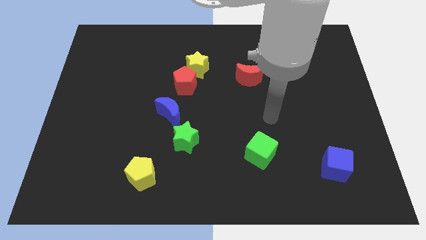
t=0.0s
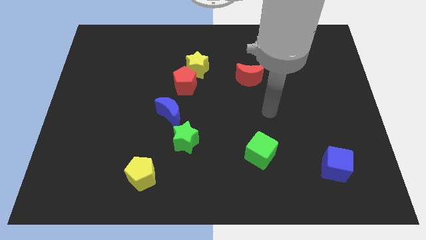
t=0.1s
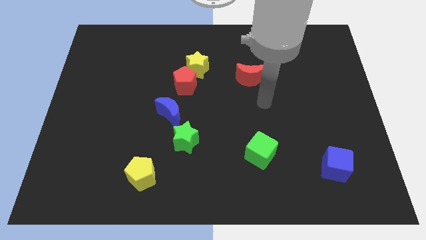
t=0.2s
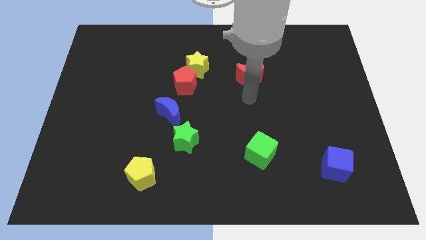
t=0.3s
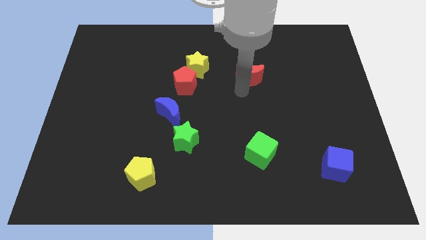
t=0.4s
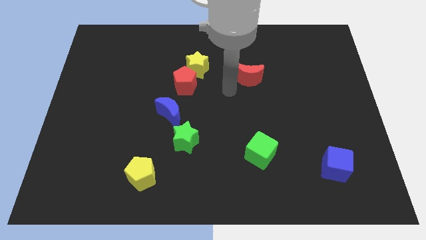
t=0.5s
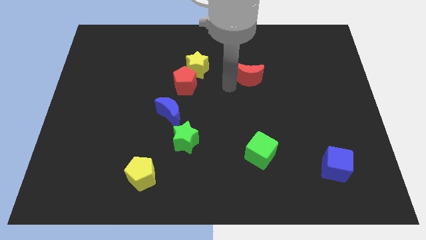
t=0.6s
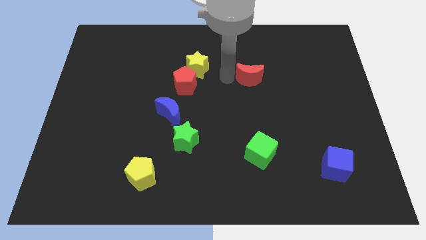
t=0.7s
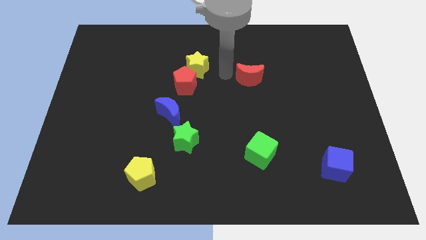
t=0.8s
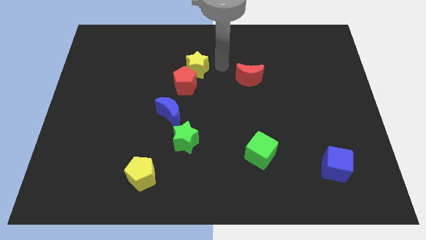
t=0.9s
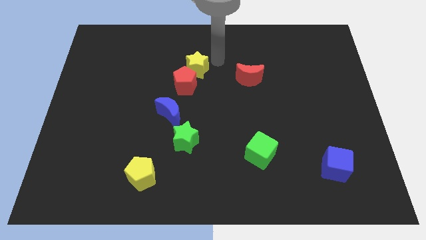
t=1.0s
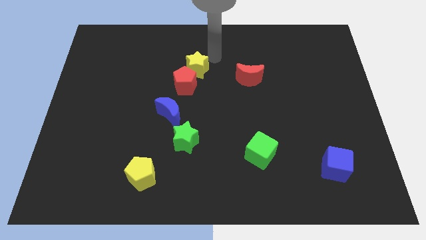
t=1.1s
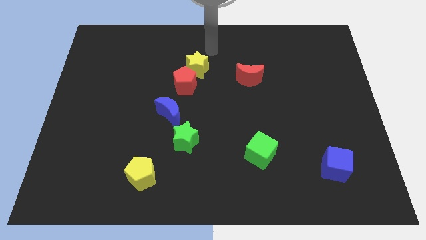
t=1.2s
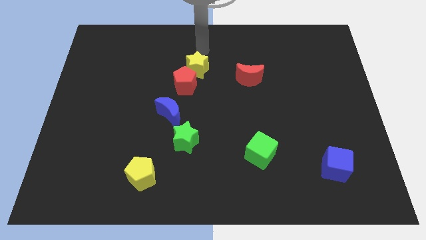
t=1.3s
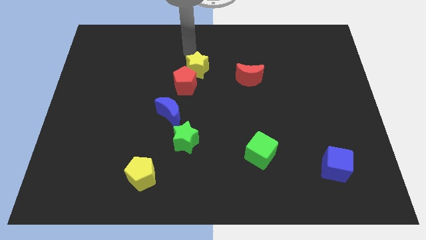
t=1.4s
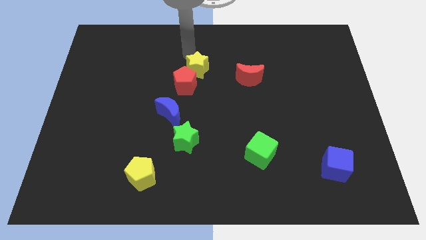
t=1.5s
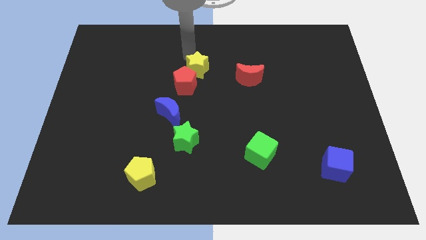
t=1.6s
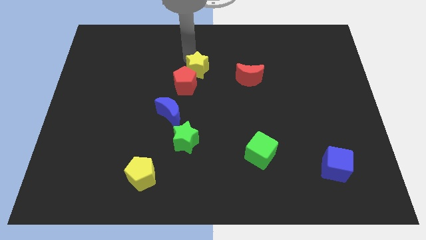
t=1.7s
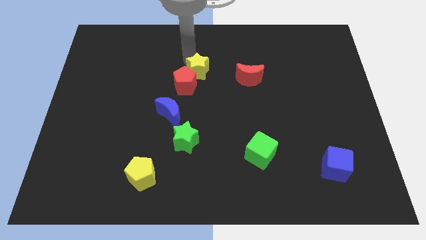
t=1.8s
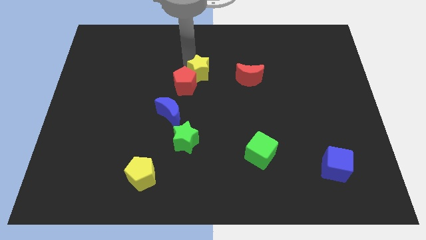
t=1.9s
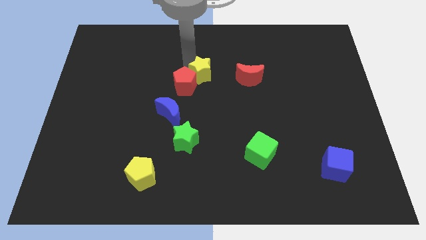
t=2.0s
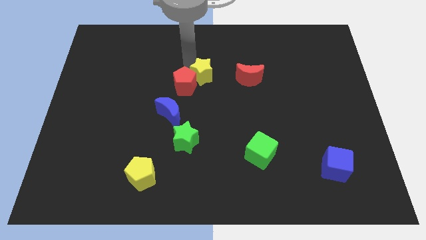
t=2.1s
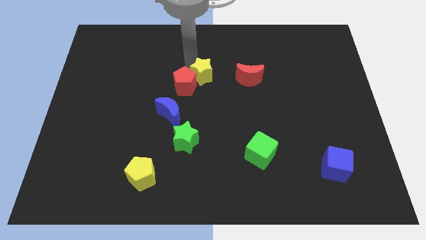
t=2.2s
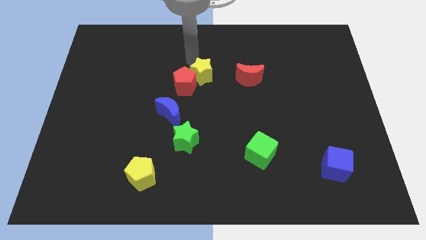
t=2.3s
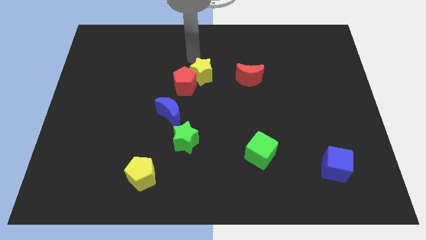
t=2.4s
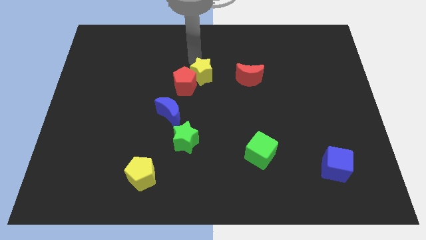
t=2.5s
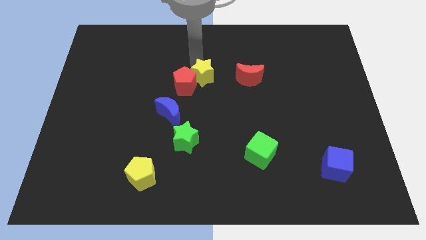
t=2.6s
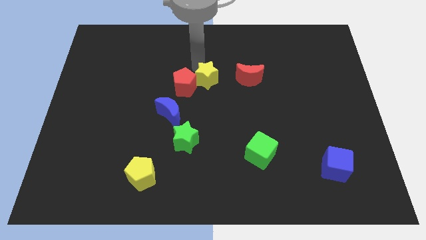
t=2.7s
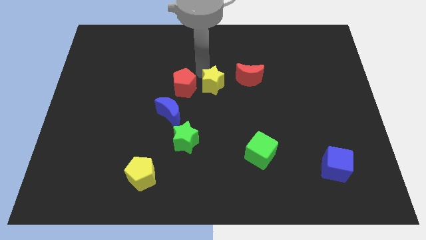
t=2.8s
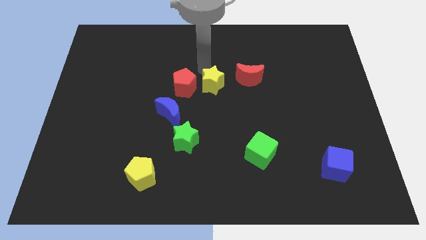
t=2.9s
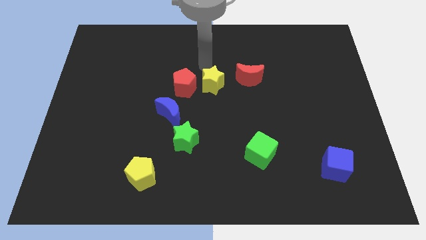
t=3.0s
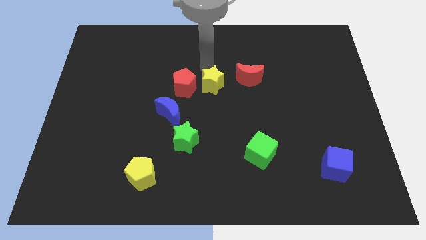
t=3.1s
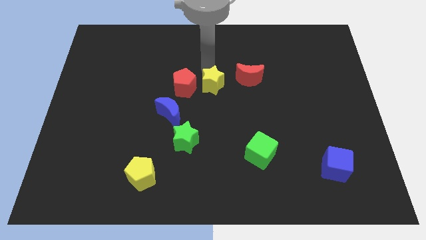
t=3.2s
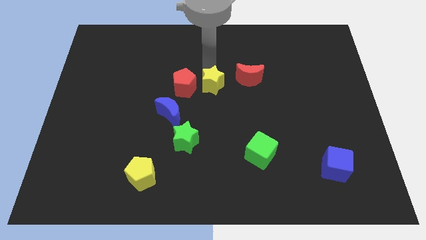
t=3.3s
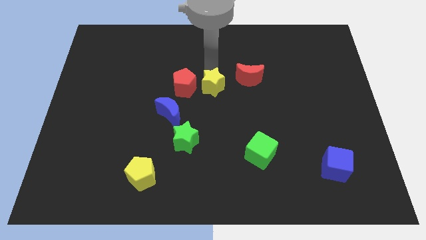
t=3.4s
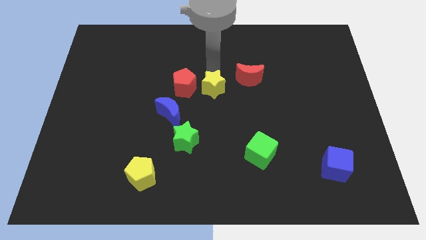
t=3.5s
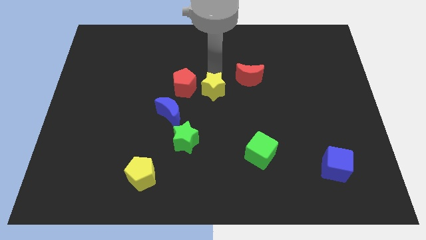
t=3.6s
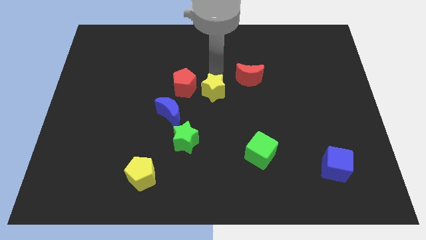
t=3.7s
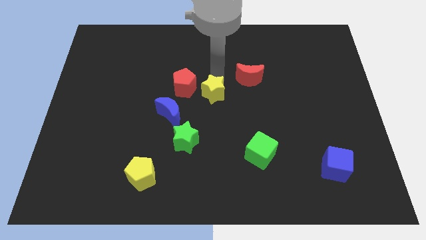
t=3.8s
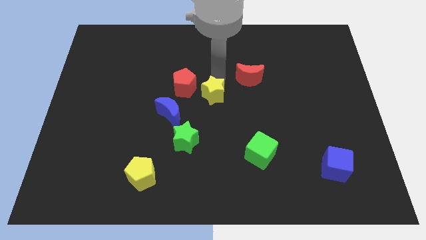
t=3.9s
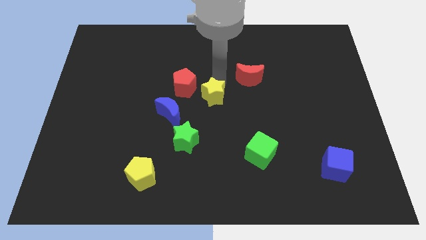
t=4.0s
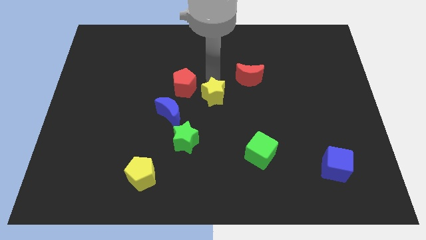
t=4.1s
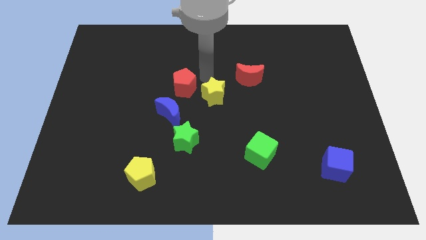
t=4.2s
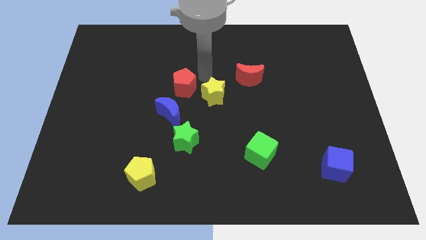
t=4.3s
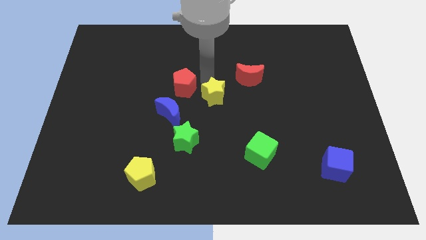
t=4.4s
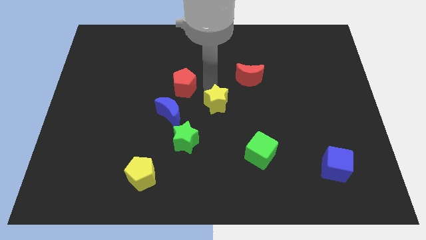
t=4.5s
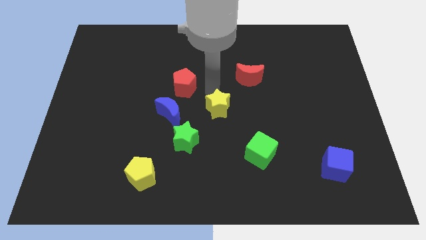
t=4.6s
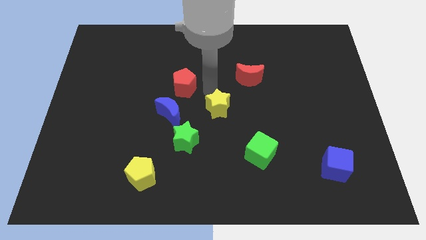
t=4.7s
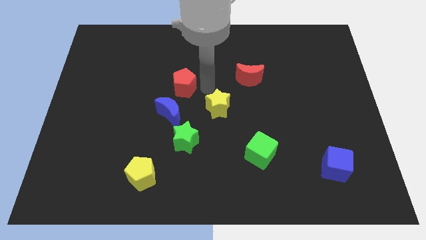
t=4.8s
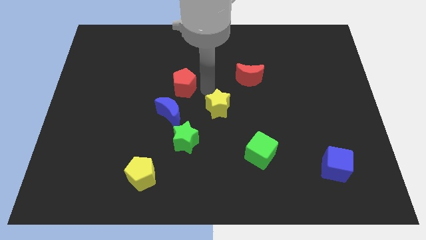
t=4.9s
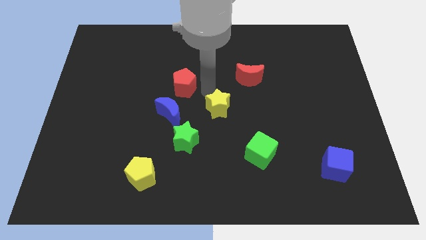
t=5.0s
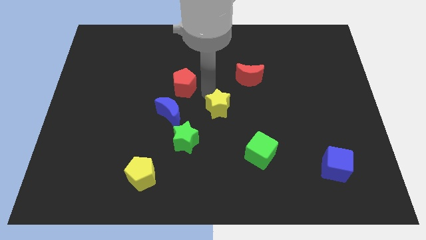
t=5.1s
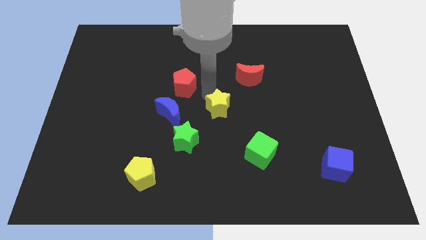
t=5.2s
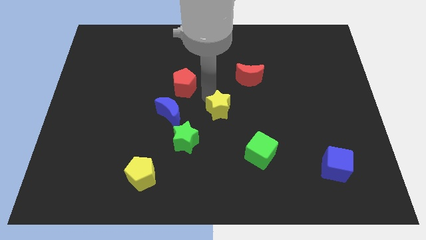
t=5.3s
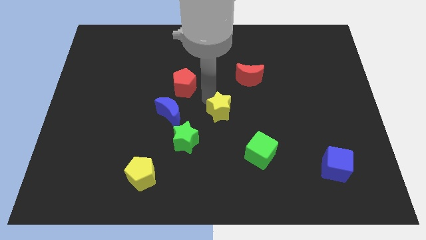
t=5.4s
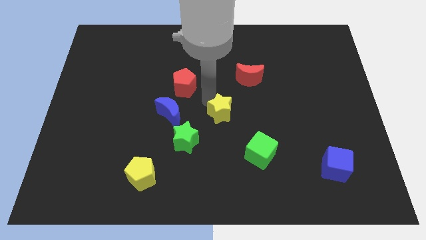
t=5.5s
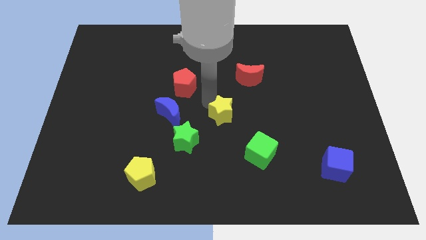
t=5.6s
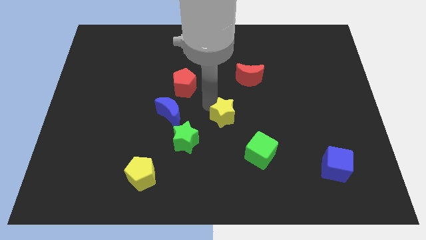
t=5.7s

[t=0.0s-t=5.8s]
put the yellow star diagonally up and to the left of the green cube

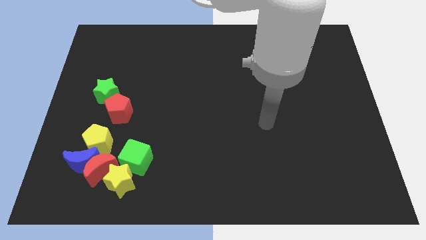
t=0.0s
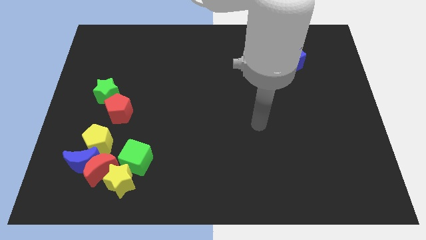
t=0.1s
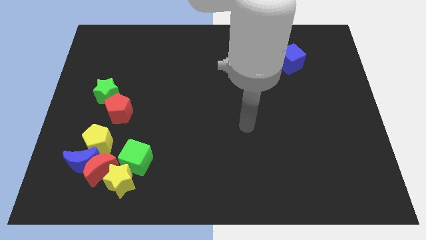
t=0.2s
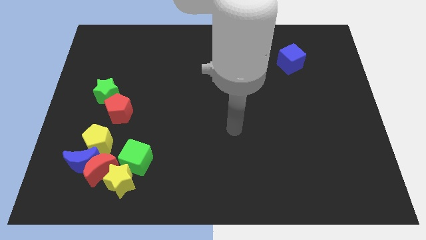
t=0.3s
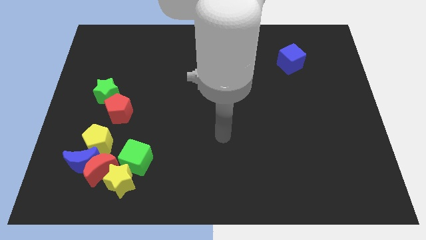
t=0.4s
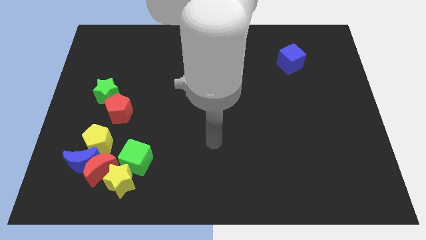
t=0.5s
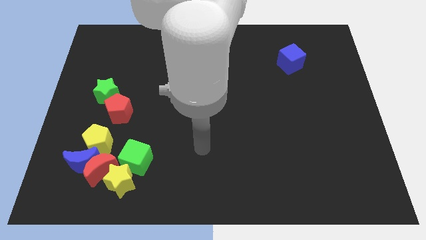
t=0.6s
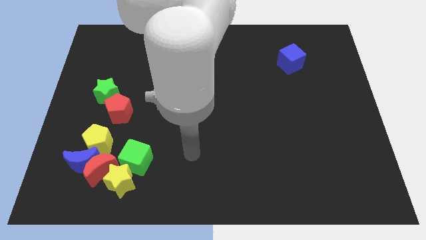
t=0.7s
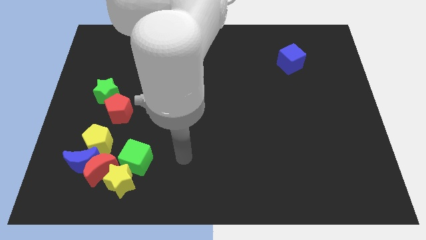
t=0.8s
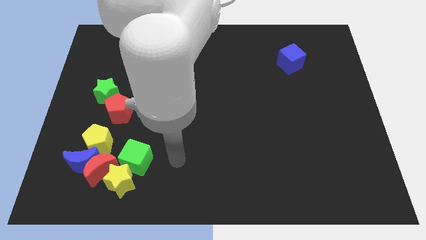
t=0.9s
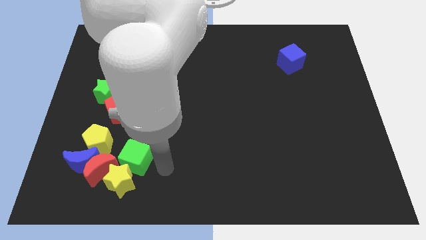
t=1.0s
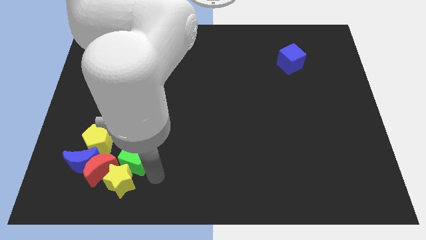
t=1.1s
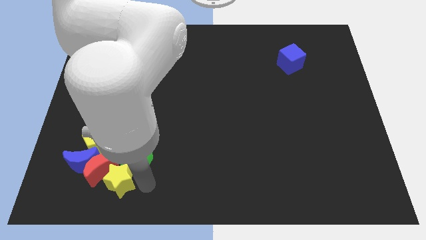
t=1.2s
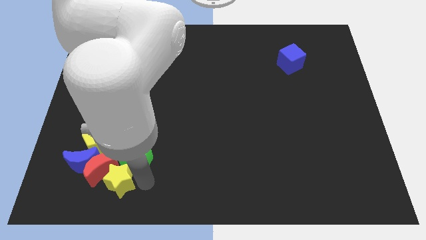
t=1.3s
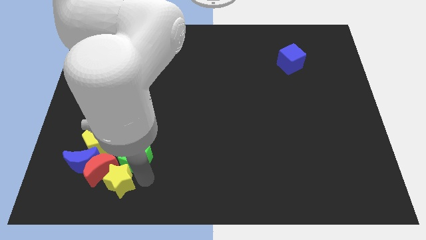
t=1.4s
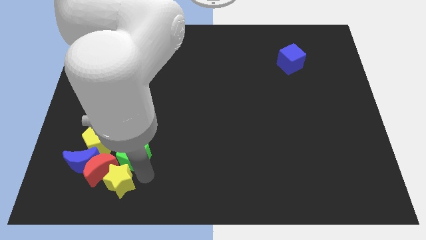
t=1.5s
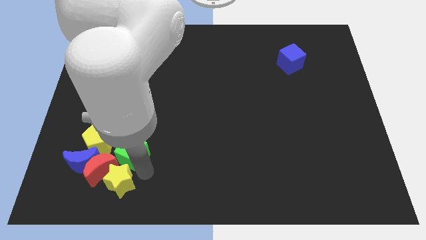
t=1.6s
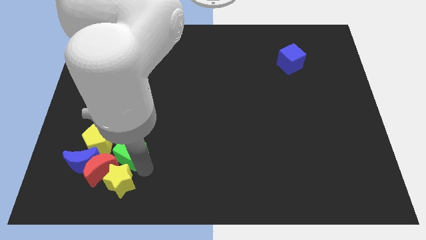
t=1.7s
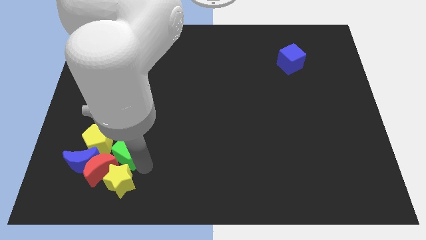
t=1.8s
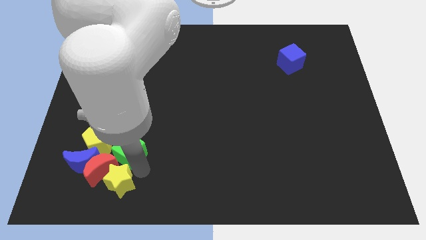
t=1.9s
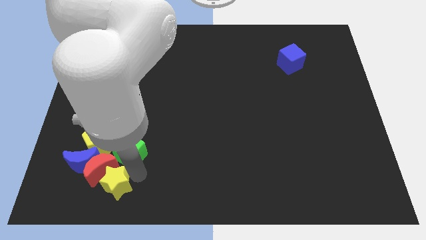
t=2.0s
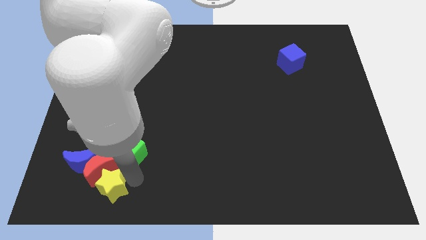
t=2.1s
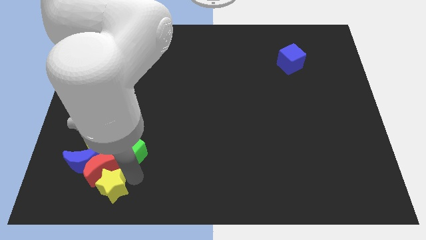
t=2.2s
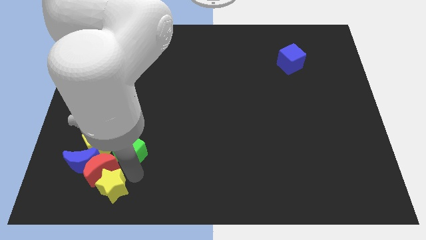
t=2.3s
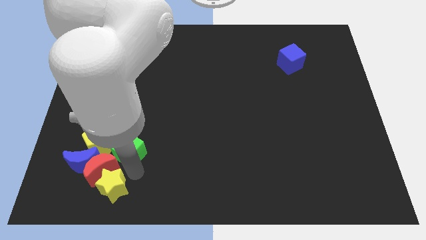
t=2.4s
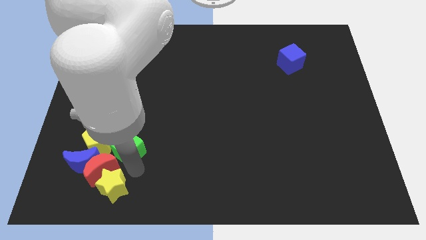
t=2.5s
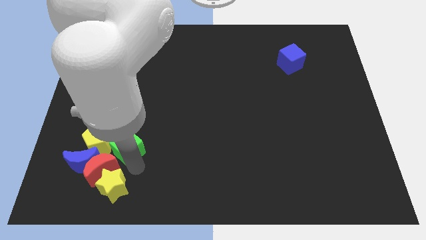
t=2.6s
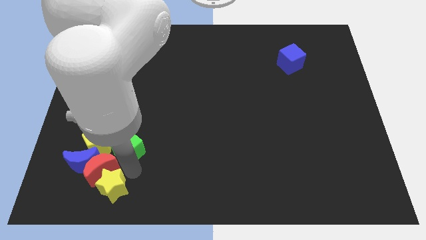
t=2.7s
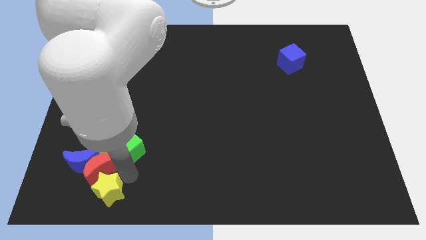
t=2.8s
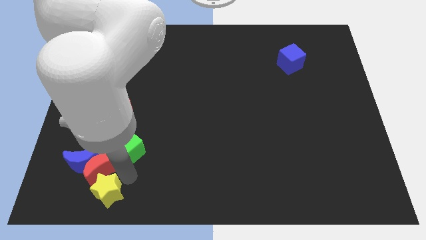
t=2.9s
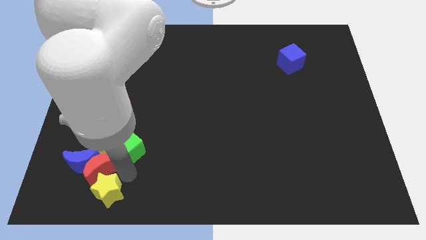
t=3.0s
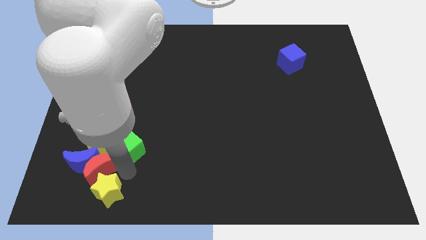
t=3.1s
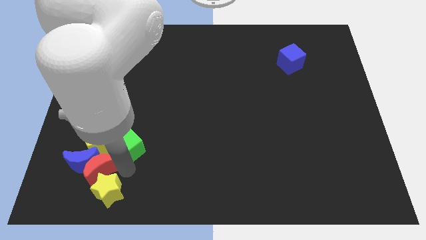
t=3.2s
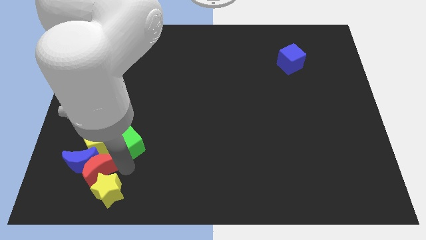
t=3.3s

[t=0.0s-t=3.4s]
move the green cube to the top right of the yellow pentagon
